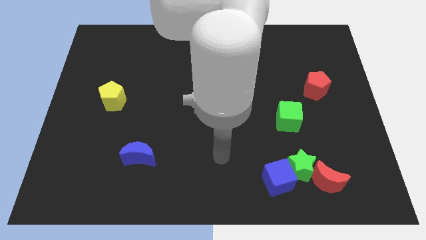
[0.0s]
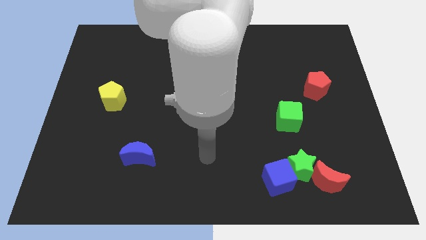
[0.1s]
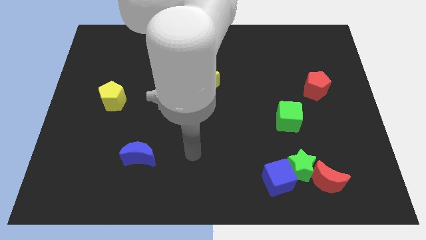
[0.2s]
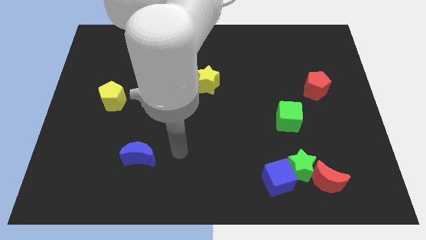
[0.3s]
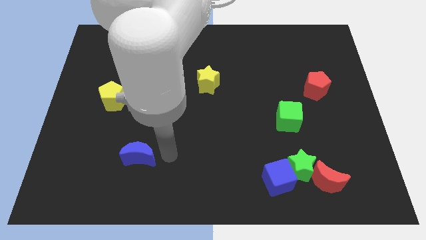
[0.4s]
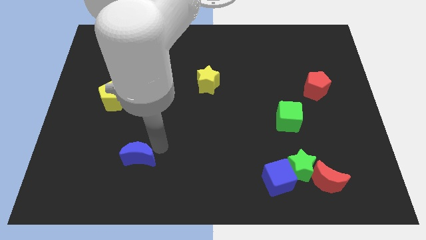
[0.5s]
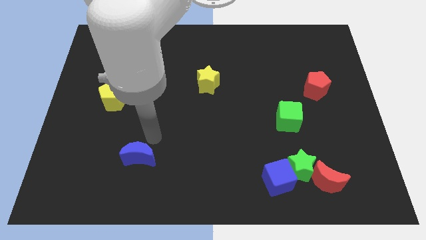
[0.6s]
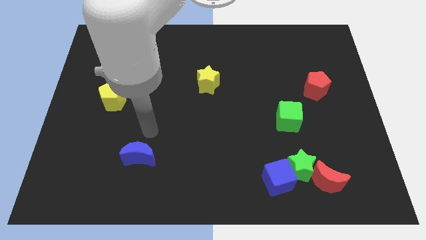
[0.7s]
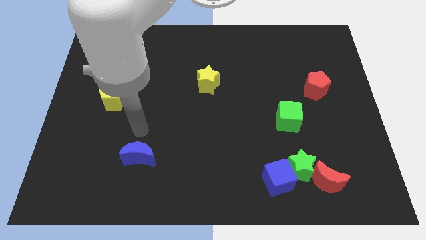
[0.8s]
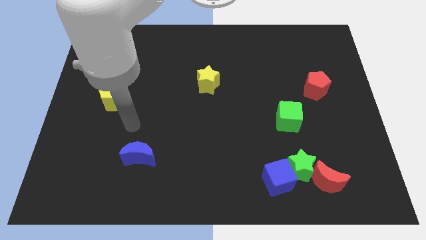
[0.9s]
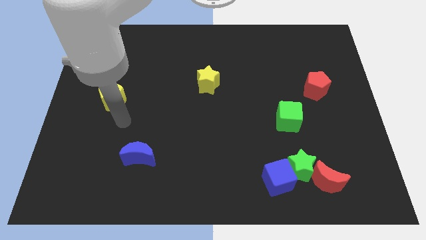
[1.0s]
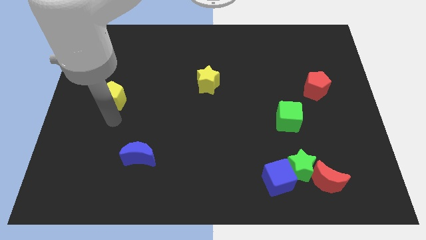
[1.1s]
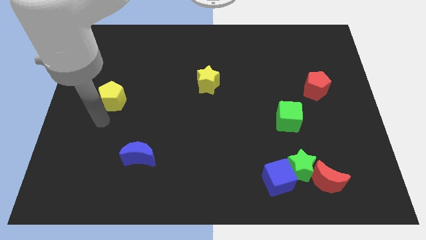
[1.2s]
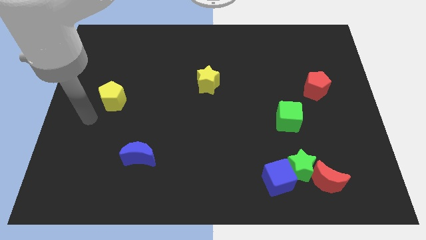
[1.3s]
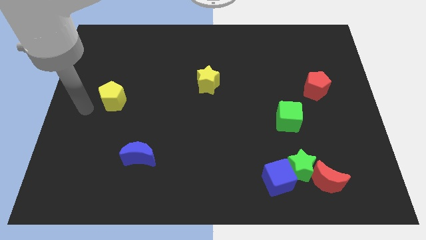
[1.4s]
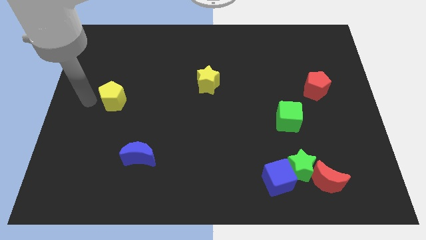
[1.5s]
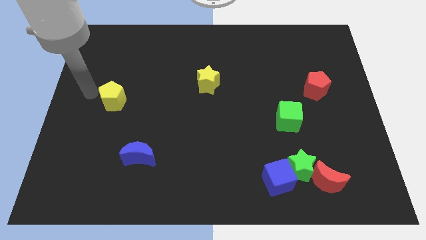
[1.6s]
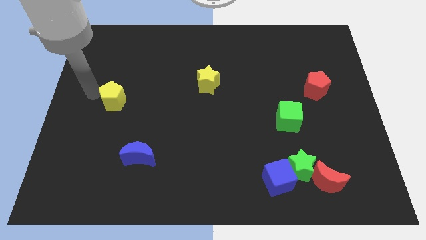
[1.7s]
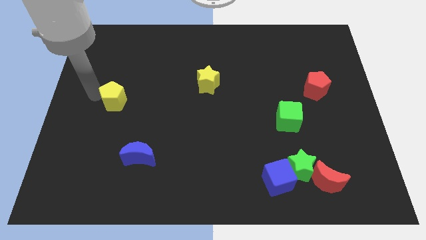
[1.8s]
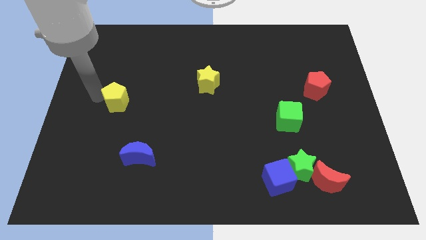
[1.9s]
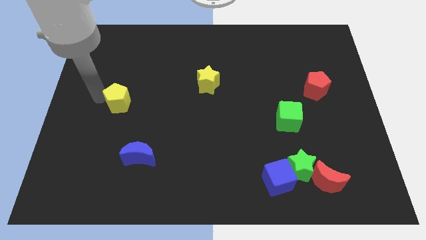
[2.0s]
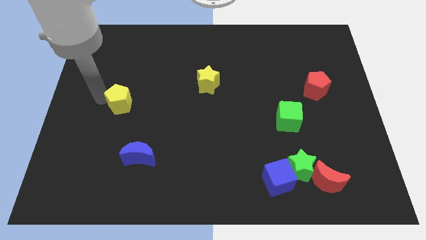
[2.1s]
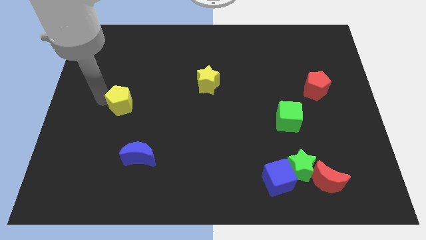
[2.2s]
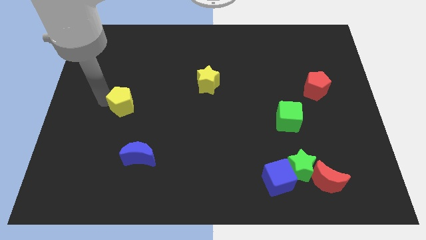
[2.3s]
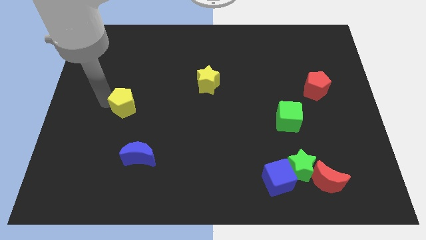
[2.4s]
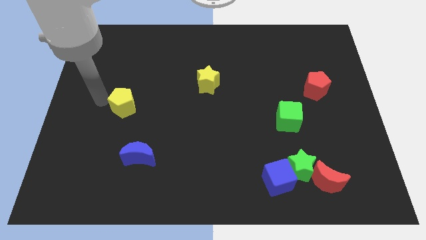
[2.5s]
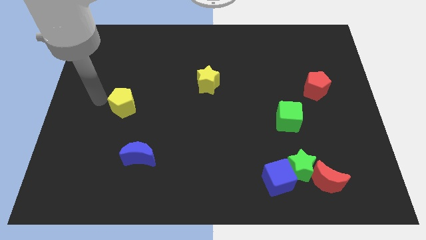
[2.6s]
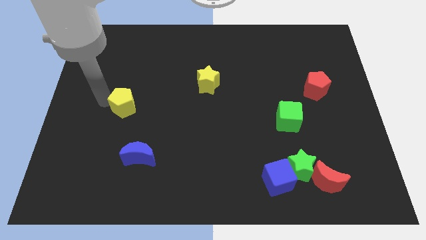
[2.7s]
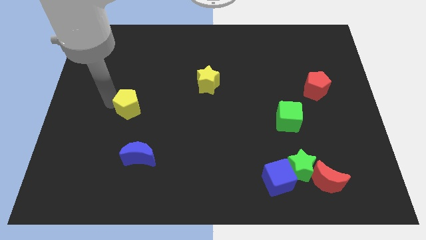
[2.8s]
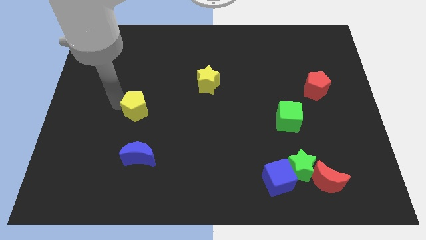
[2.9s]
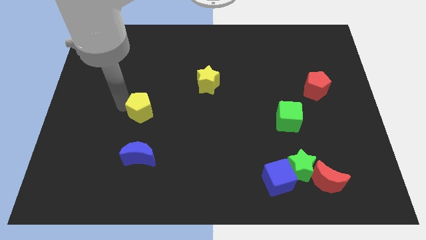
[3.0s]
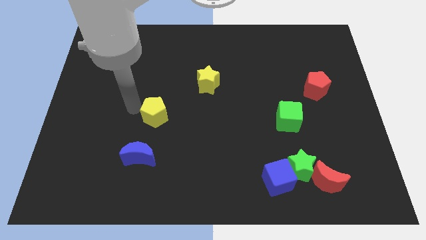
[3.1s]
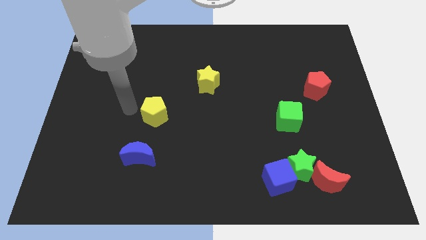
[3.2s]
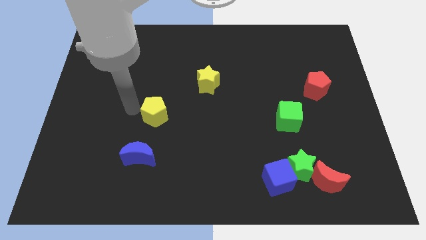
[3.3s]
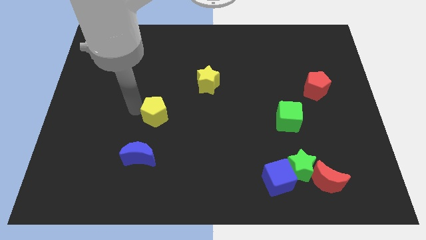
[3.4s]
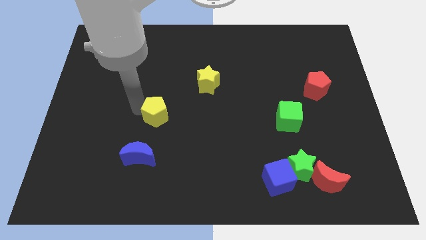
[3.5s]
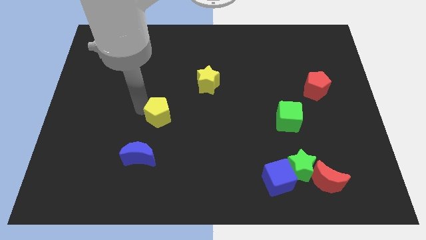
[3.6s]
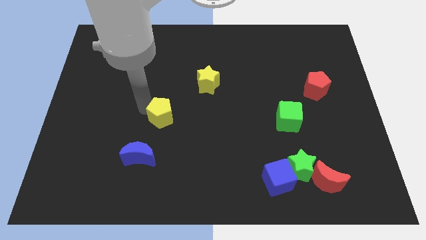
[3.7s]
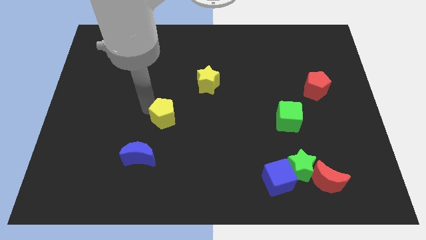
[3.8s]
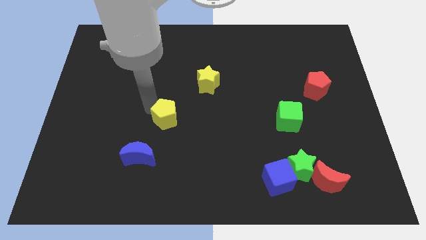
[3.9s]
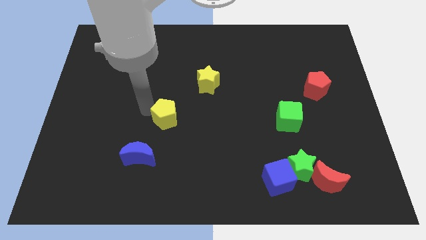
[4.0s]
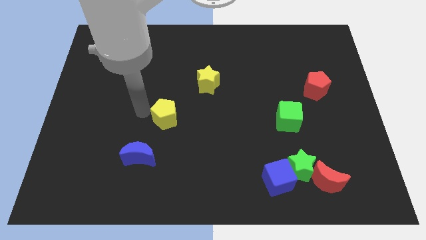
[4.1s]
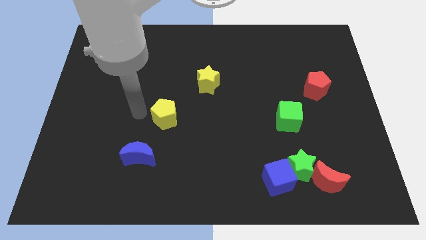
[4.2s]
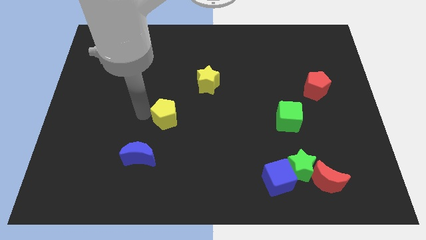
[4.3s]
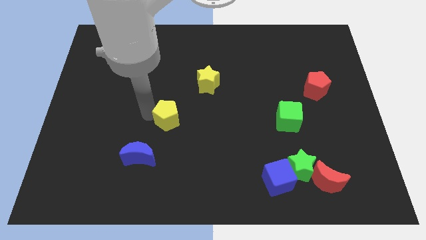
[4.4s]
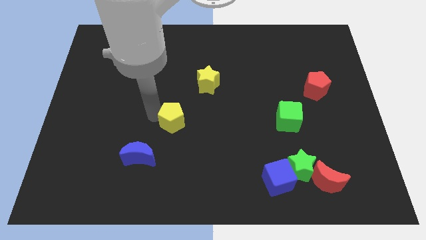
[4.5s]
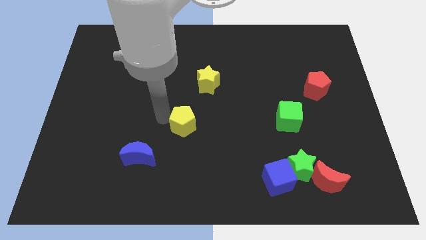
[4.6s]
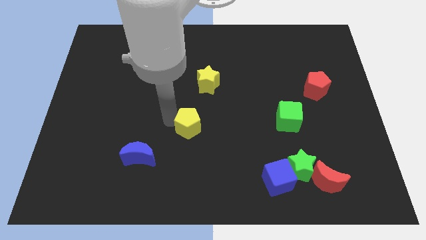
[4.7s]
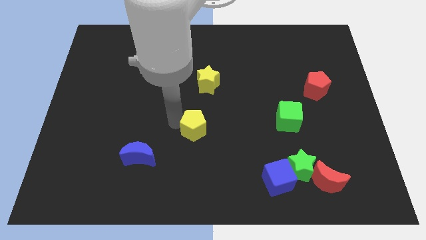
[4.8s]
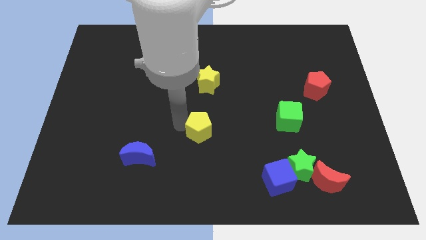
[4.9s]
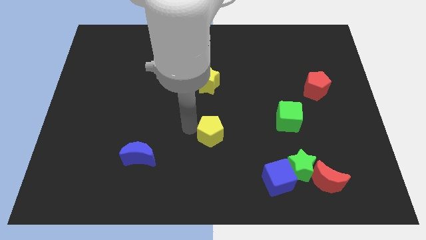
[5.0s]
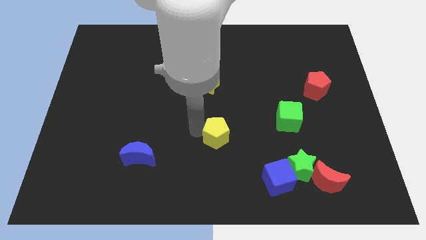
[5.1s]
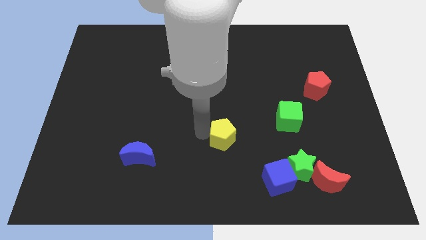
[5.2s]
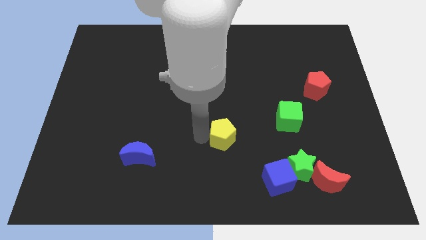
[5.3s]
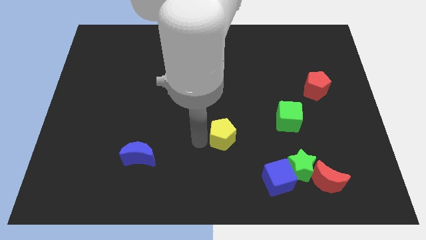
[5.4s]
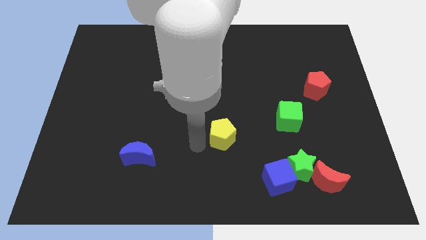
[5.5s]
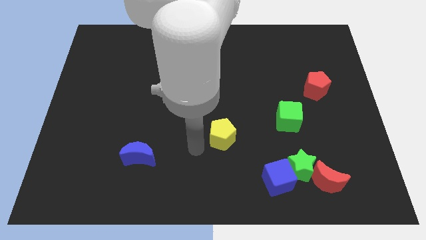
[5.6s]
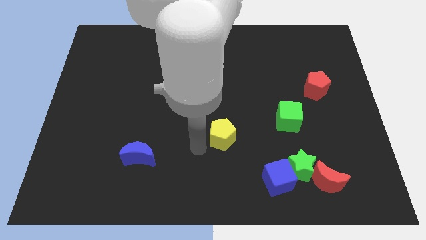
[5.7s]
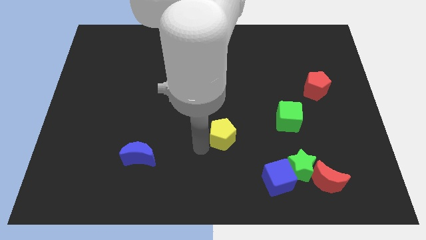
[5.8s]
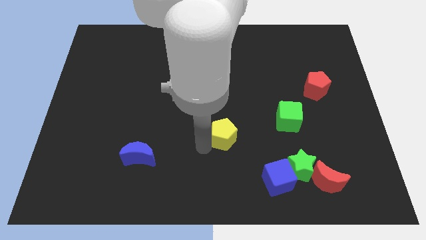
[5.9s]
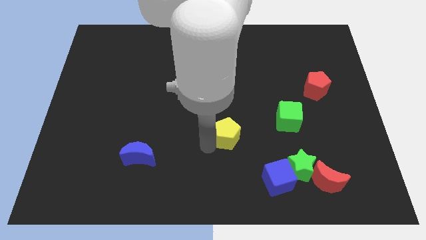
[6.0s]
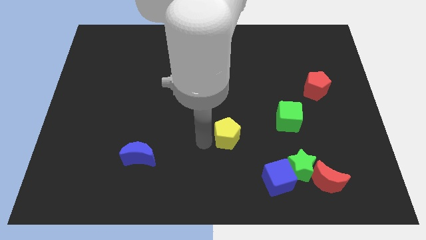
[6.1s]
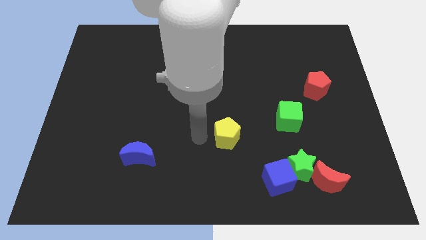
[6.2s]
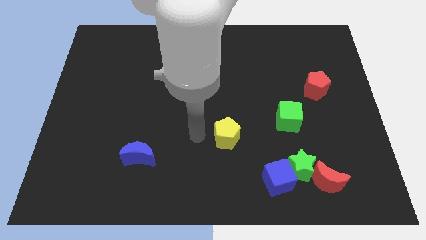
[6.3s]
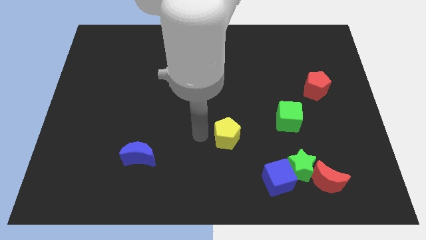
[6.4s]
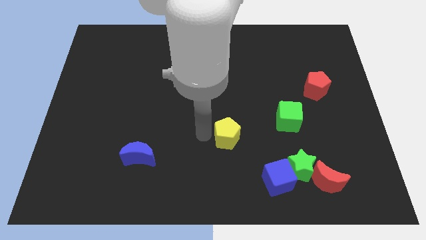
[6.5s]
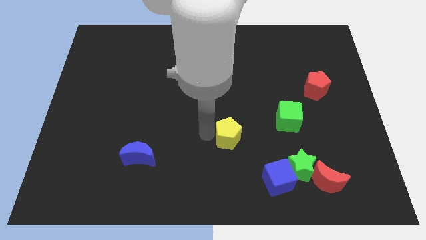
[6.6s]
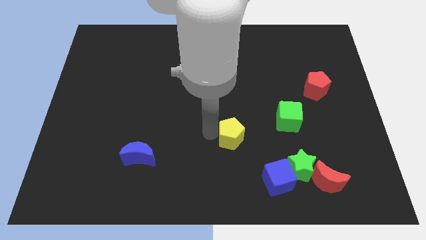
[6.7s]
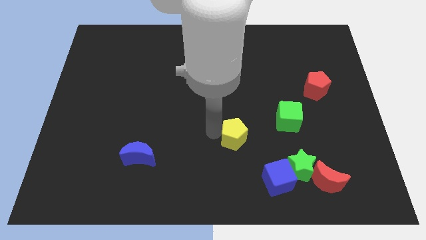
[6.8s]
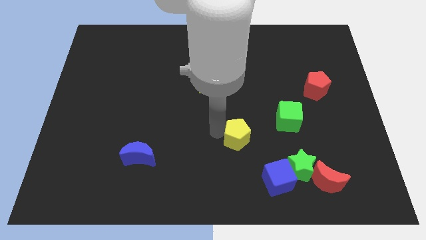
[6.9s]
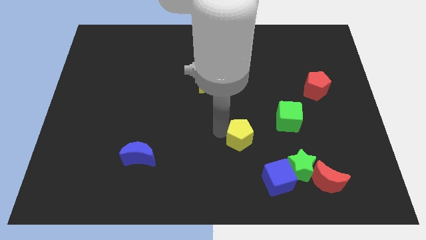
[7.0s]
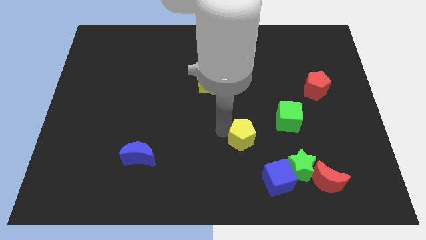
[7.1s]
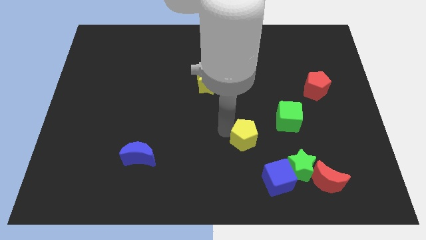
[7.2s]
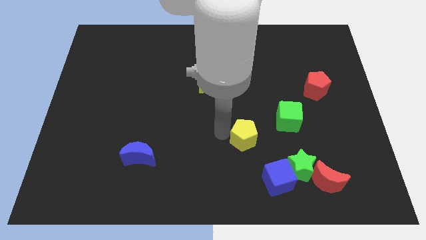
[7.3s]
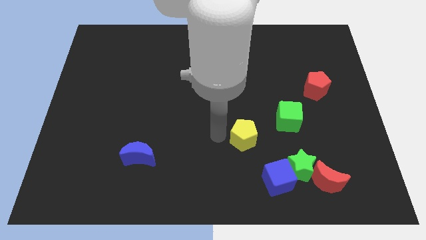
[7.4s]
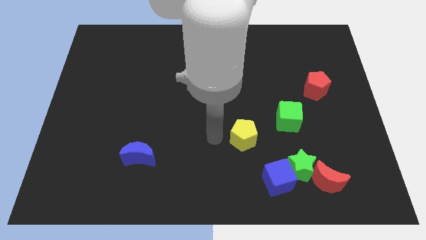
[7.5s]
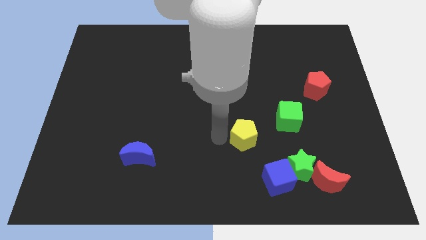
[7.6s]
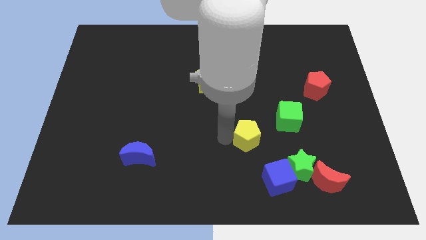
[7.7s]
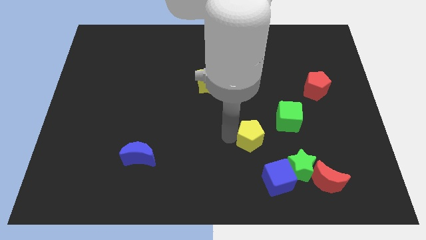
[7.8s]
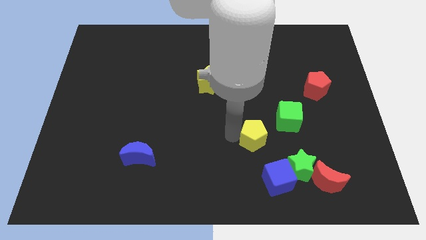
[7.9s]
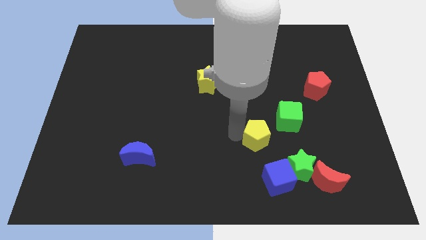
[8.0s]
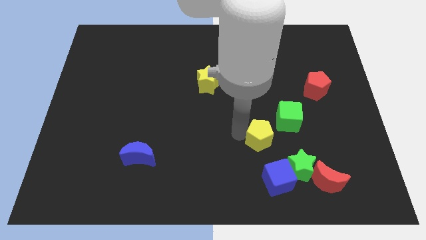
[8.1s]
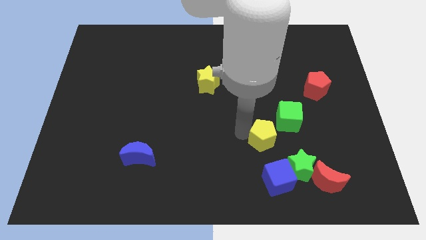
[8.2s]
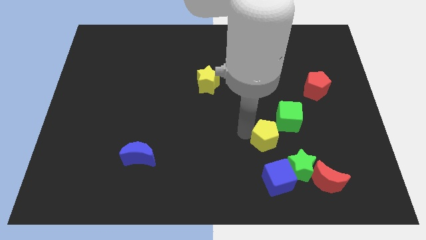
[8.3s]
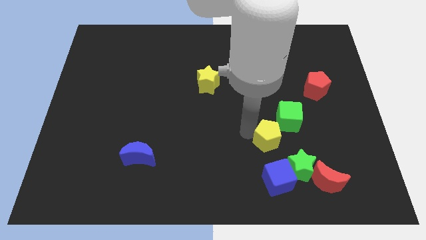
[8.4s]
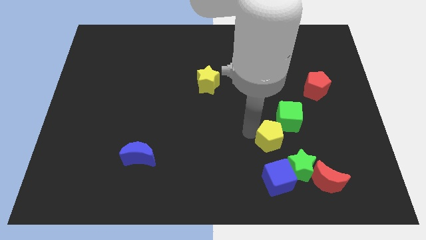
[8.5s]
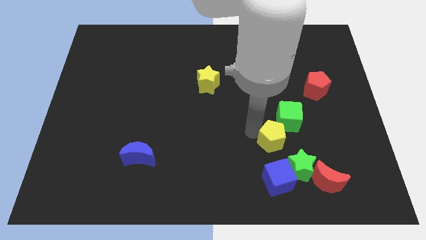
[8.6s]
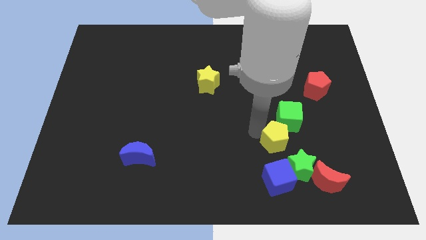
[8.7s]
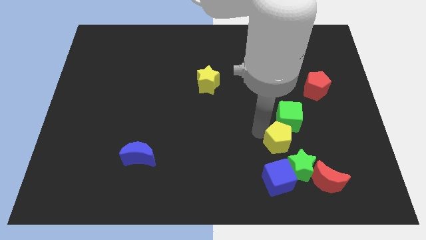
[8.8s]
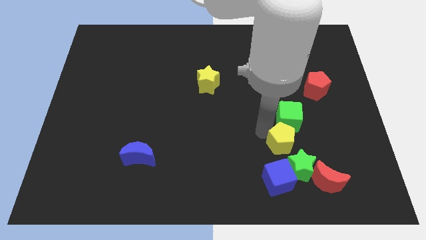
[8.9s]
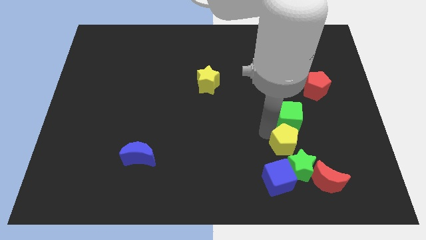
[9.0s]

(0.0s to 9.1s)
put the yellow pentagon to the top right side of the blue cube
